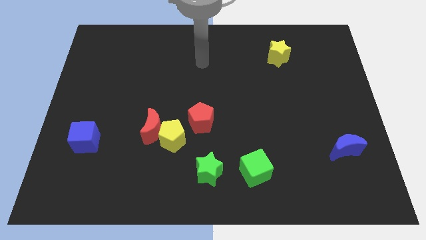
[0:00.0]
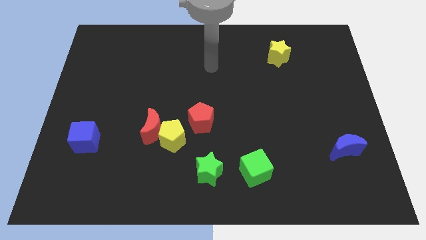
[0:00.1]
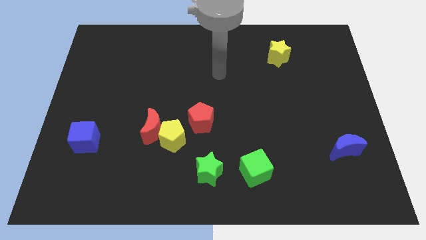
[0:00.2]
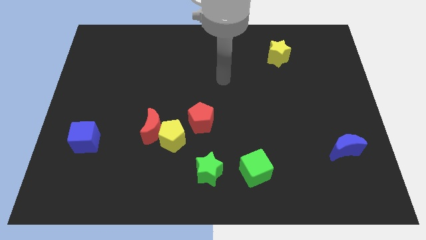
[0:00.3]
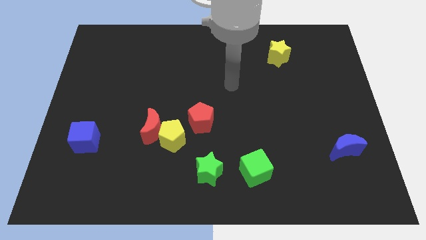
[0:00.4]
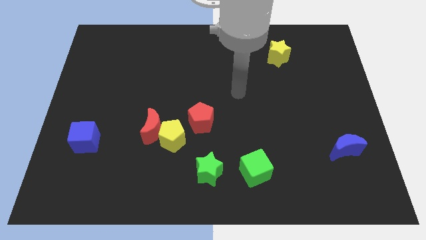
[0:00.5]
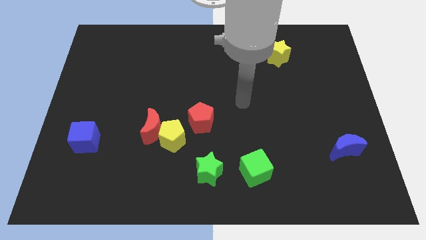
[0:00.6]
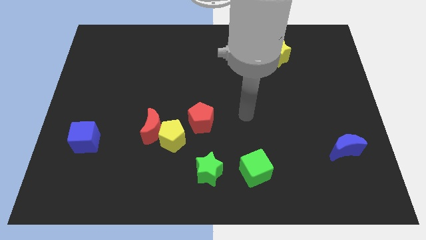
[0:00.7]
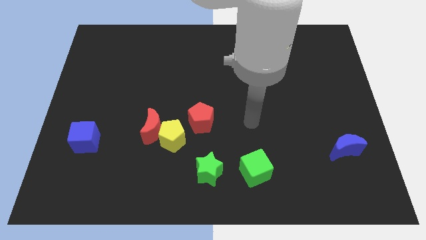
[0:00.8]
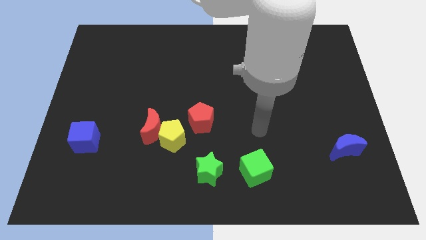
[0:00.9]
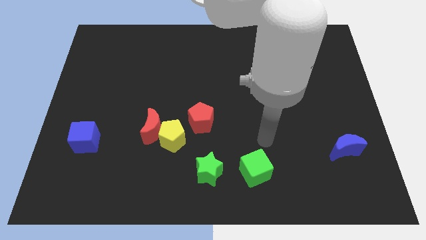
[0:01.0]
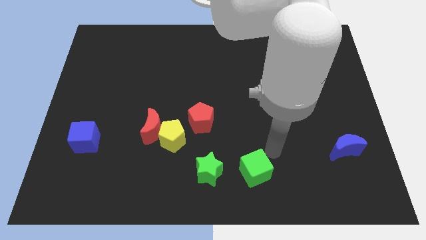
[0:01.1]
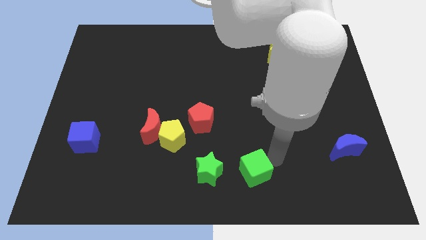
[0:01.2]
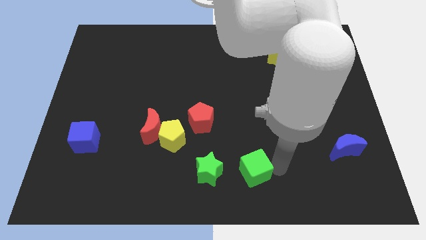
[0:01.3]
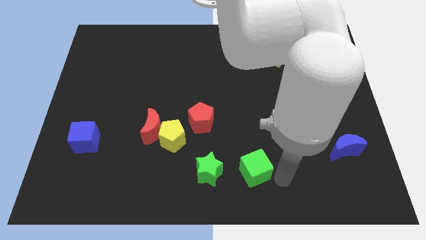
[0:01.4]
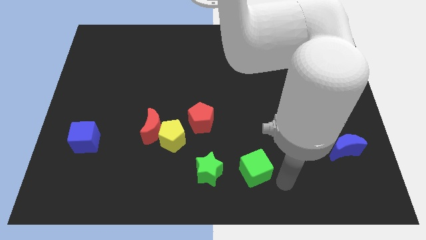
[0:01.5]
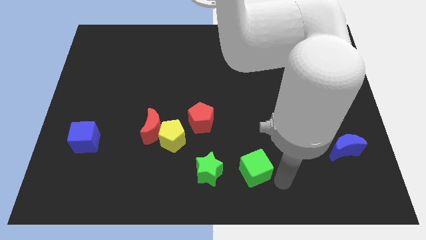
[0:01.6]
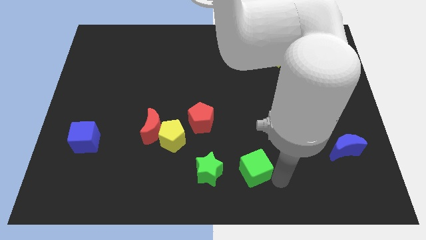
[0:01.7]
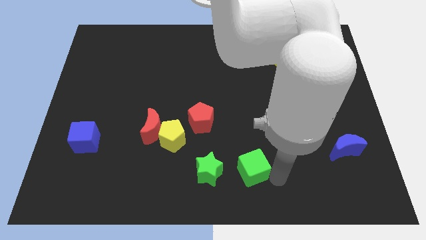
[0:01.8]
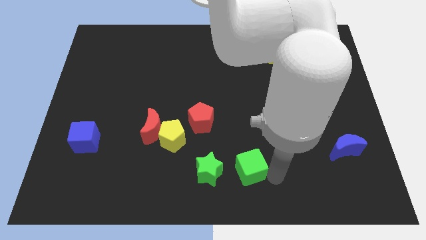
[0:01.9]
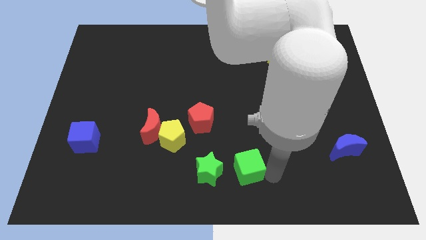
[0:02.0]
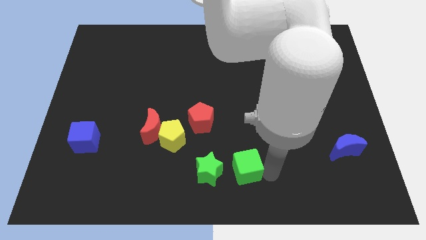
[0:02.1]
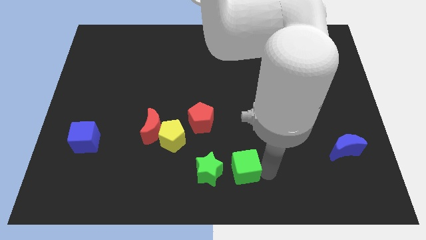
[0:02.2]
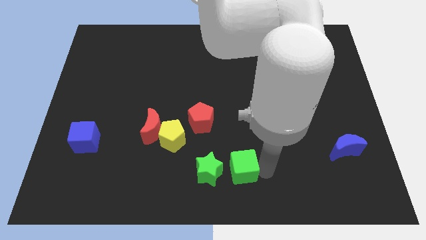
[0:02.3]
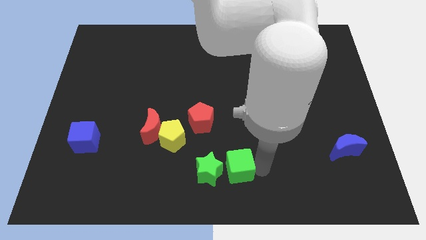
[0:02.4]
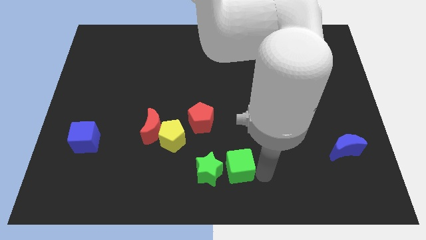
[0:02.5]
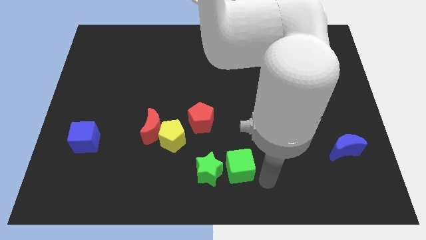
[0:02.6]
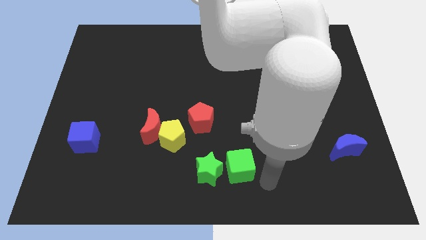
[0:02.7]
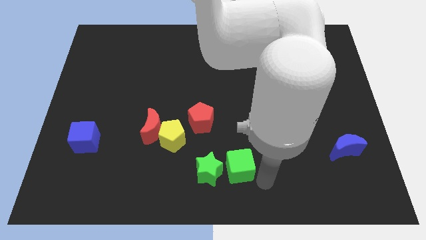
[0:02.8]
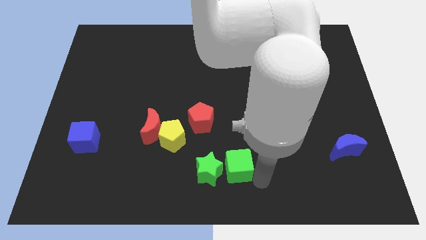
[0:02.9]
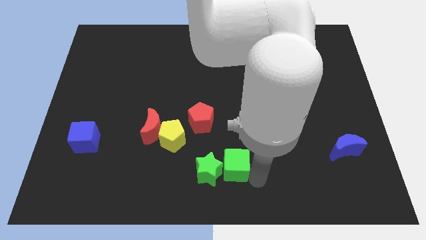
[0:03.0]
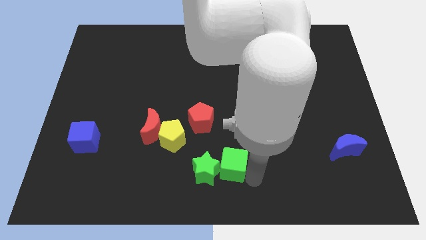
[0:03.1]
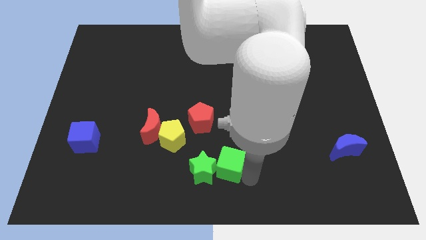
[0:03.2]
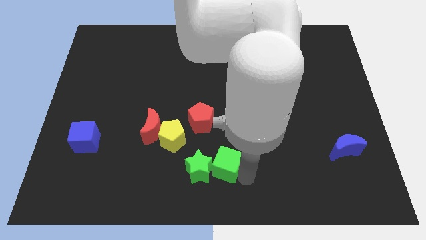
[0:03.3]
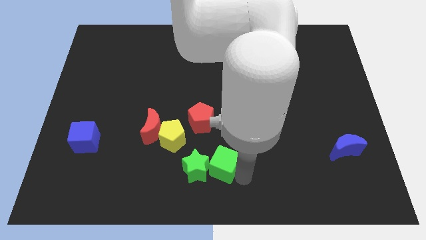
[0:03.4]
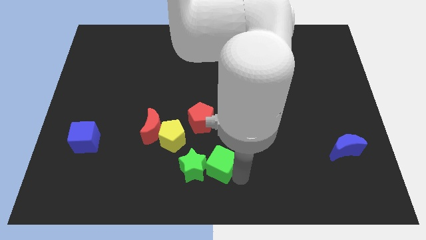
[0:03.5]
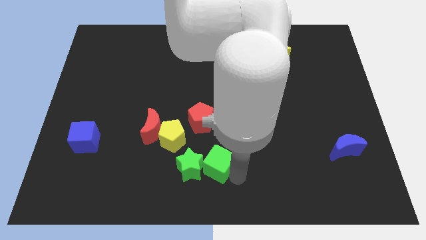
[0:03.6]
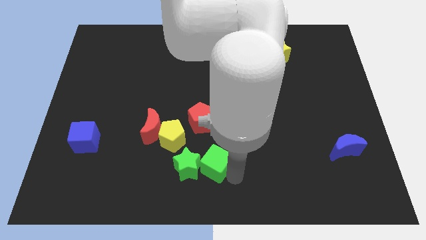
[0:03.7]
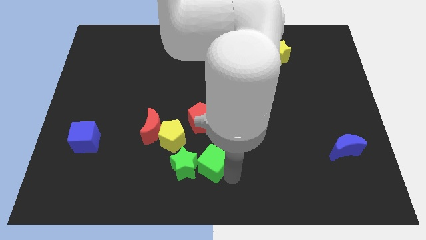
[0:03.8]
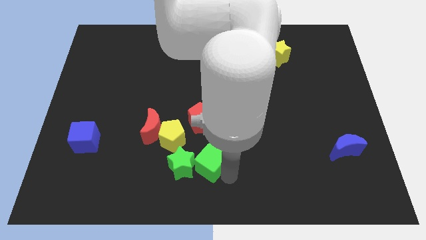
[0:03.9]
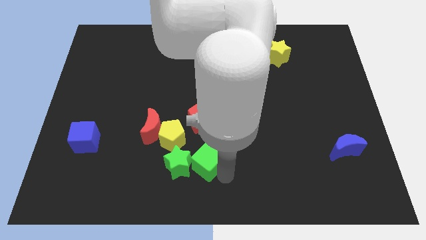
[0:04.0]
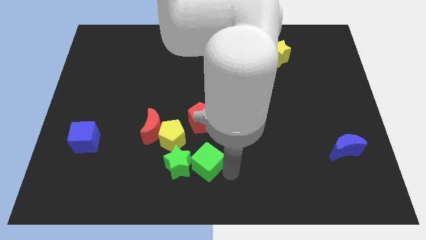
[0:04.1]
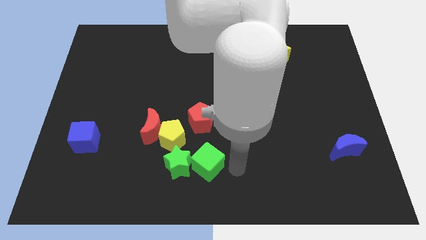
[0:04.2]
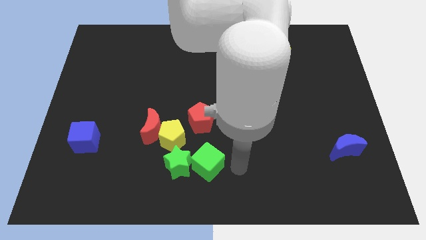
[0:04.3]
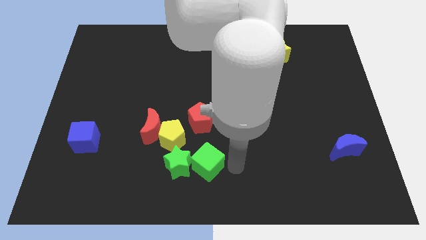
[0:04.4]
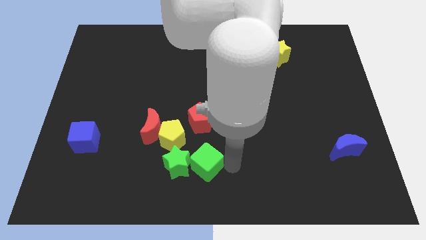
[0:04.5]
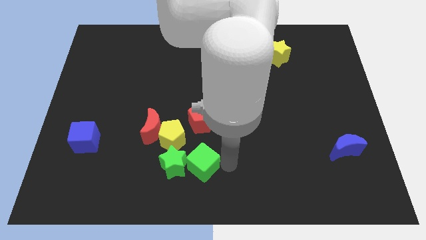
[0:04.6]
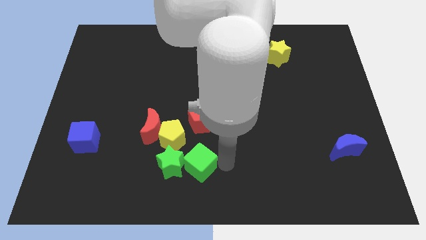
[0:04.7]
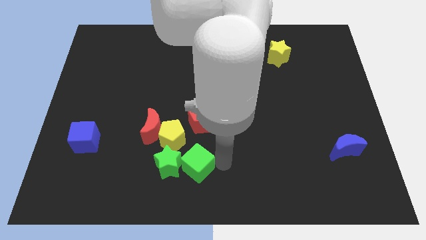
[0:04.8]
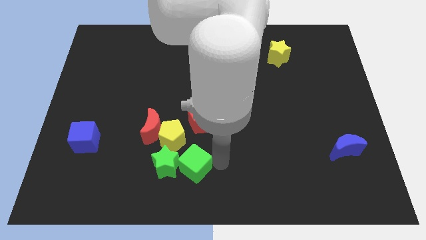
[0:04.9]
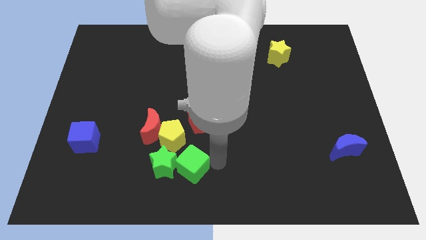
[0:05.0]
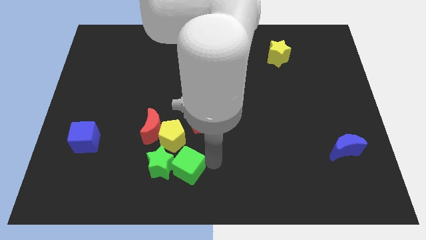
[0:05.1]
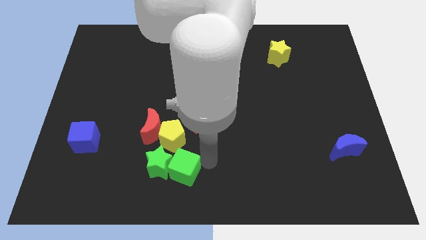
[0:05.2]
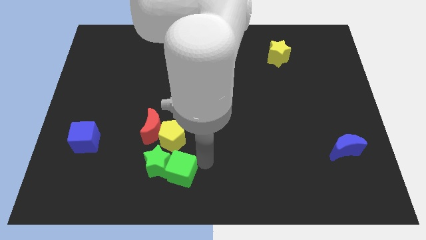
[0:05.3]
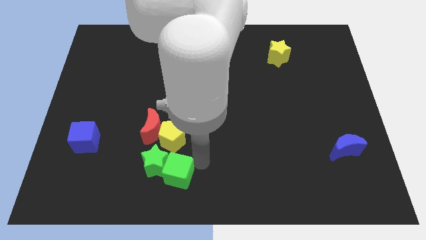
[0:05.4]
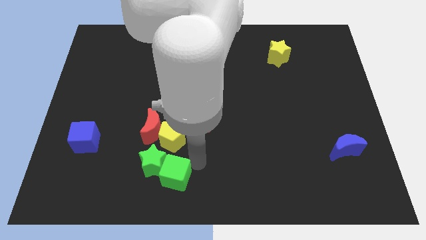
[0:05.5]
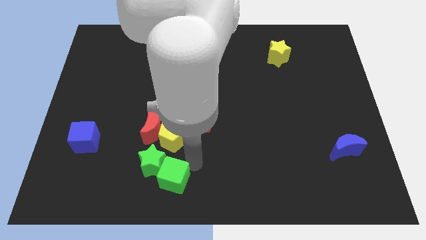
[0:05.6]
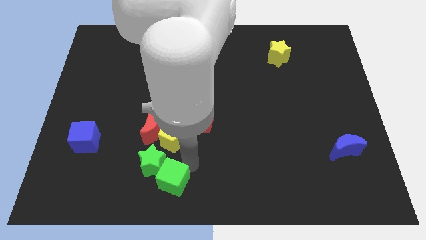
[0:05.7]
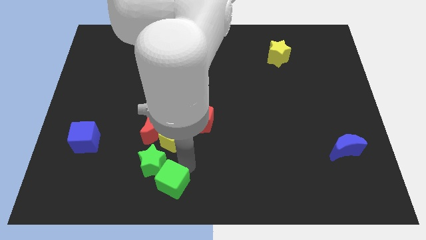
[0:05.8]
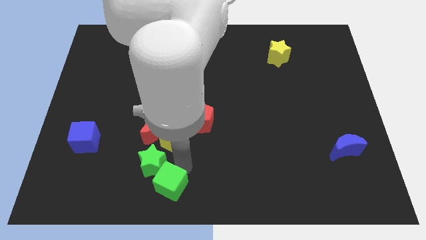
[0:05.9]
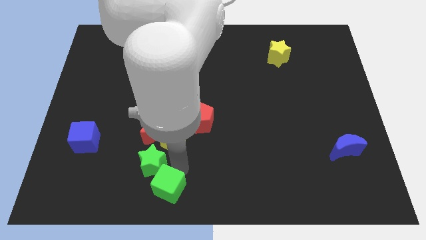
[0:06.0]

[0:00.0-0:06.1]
move the green cube to the bottom of the red moon

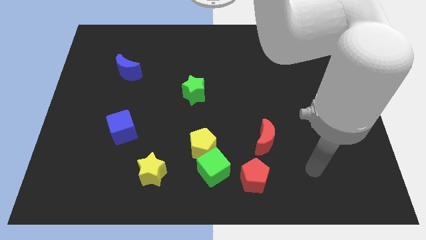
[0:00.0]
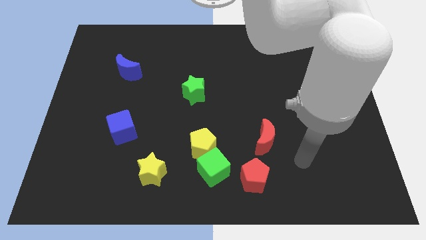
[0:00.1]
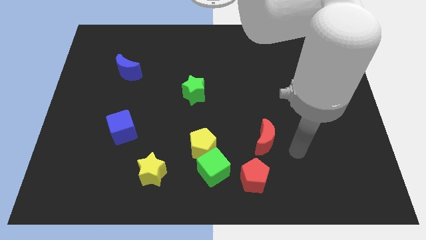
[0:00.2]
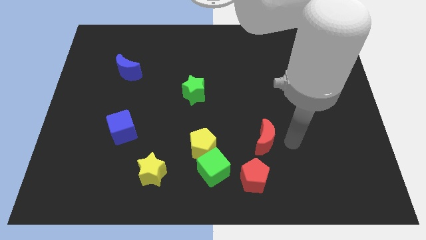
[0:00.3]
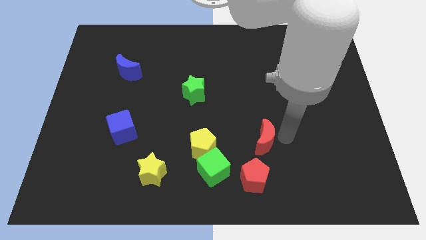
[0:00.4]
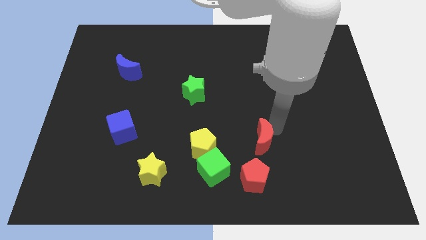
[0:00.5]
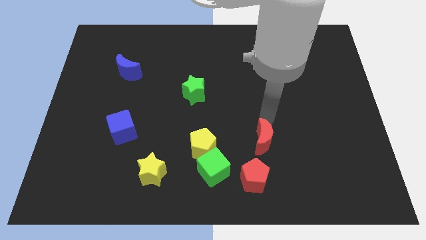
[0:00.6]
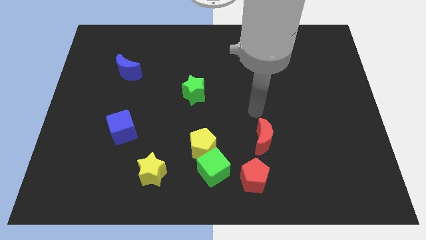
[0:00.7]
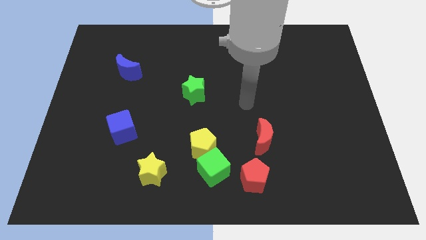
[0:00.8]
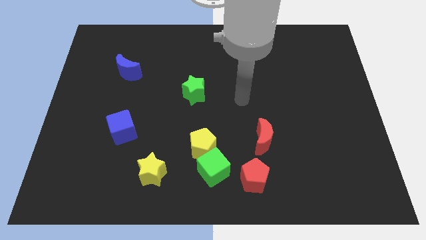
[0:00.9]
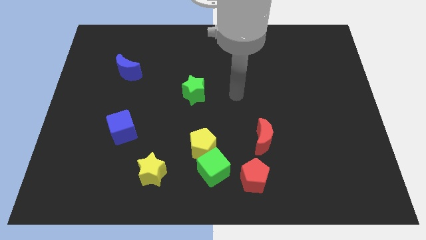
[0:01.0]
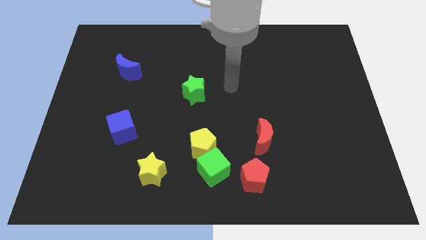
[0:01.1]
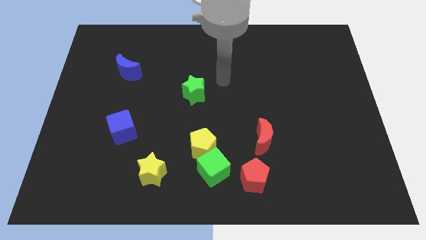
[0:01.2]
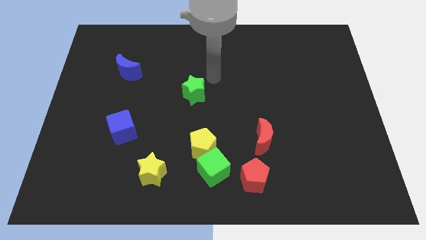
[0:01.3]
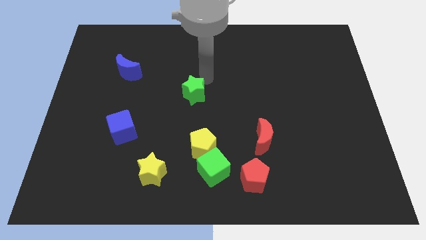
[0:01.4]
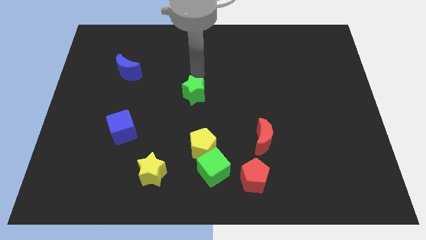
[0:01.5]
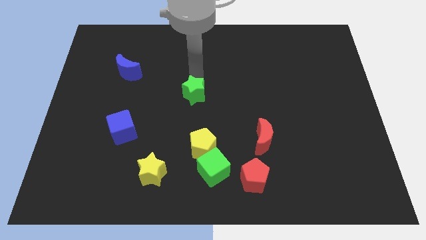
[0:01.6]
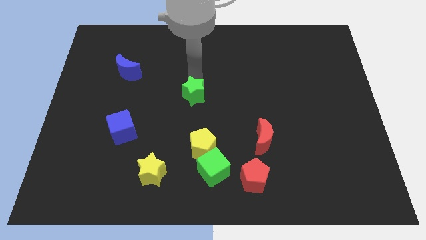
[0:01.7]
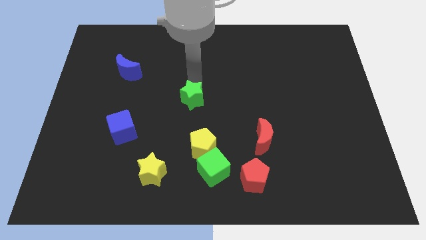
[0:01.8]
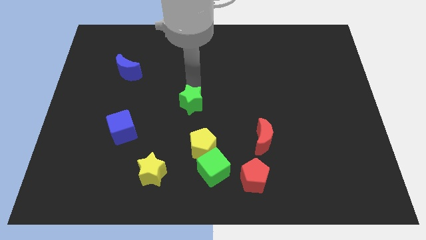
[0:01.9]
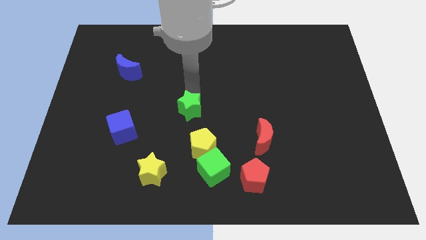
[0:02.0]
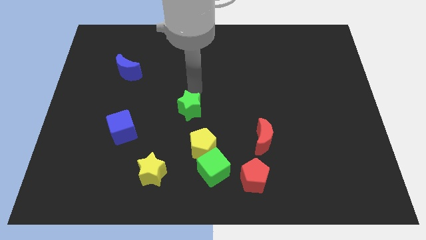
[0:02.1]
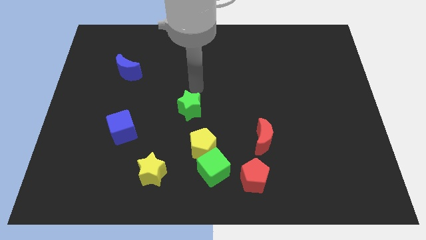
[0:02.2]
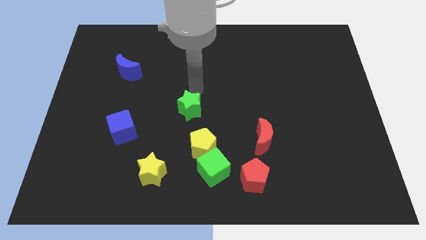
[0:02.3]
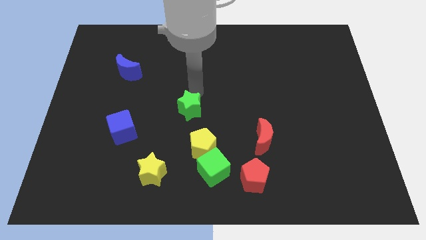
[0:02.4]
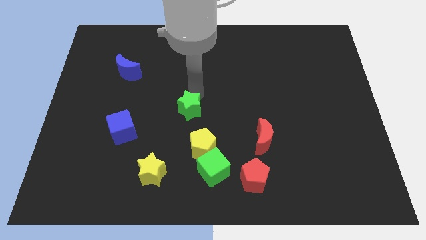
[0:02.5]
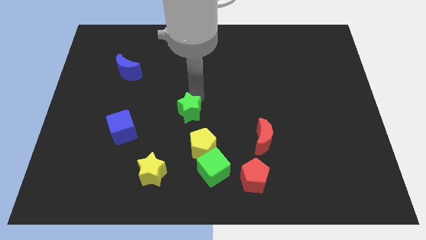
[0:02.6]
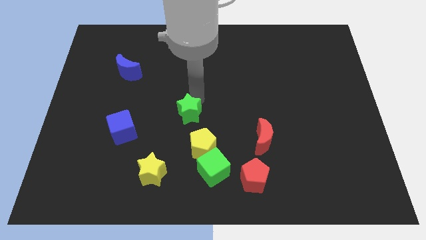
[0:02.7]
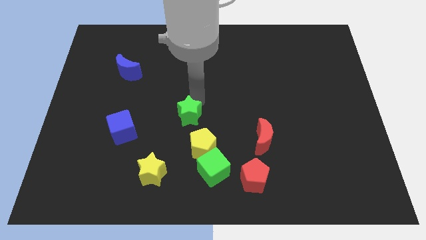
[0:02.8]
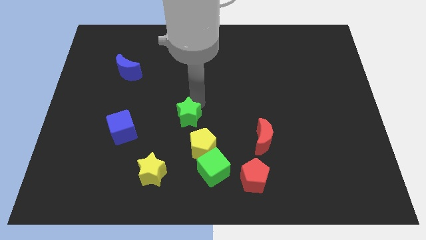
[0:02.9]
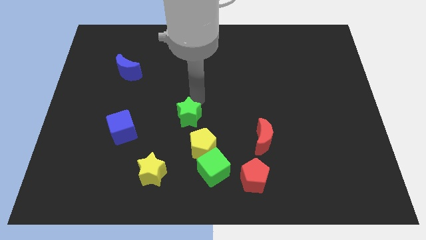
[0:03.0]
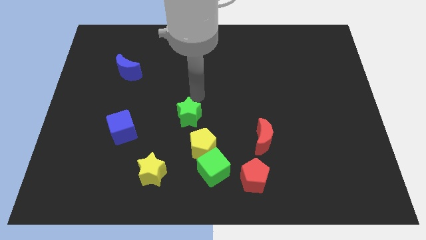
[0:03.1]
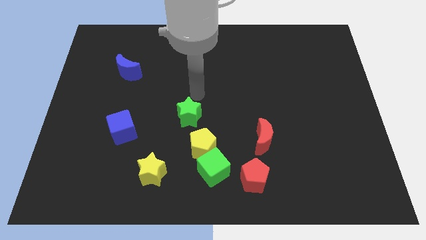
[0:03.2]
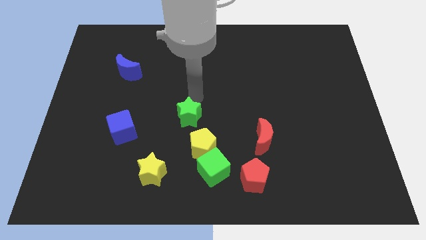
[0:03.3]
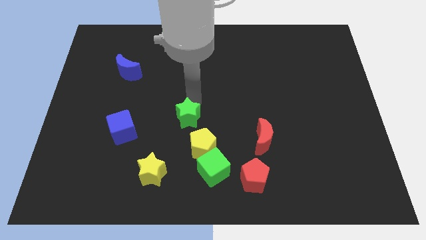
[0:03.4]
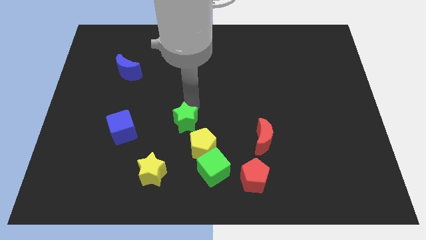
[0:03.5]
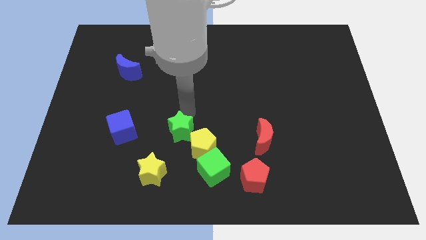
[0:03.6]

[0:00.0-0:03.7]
push the green star to the top right of the yellow star
